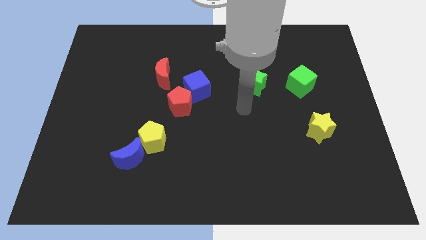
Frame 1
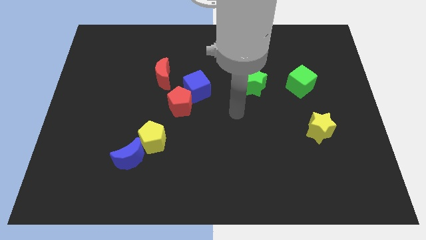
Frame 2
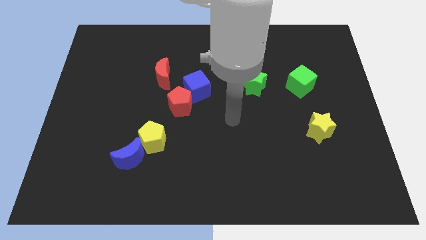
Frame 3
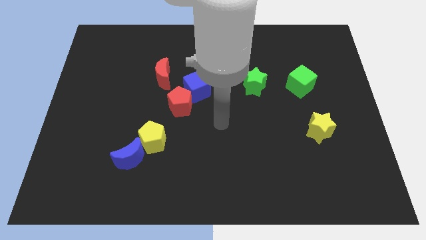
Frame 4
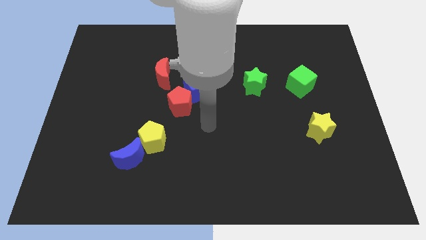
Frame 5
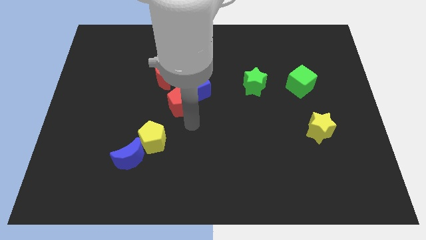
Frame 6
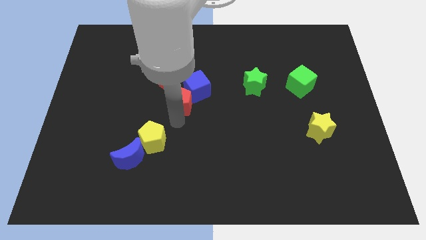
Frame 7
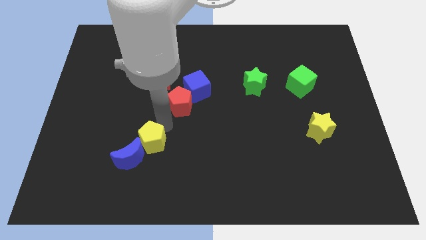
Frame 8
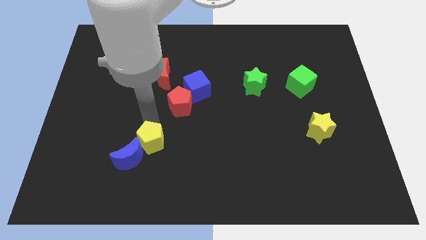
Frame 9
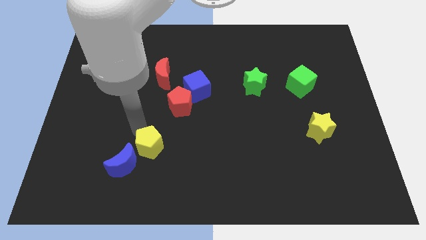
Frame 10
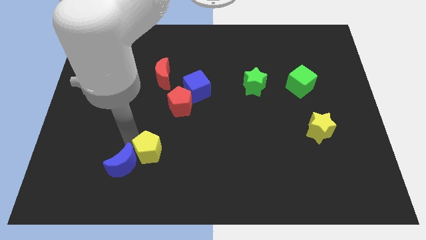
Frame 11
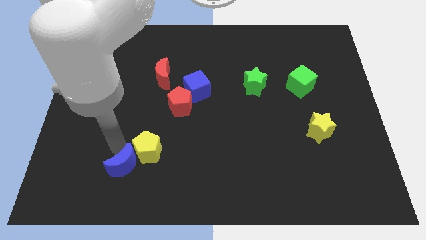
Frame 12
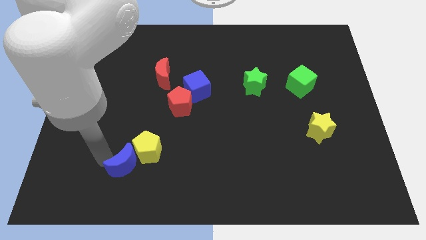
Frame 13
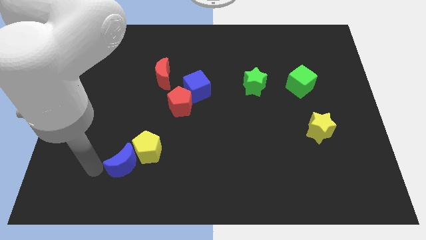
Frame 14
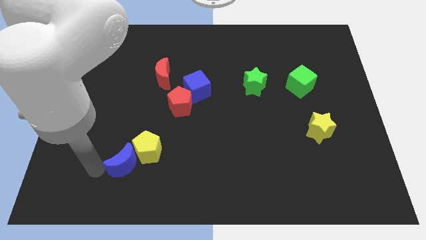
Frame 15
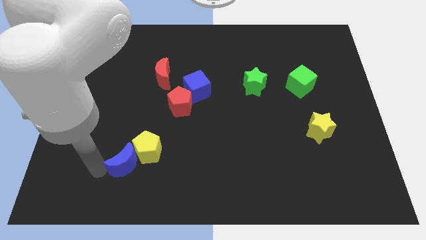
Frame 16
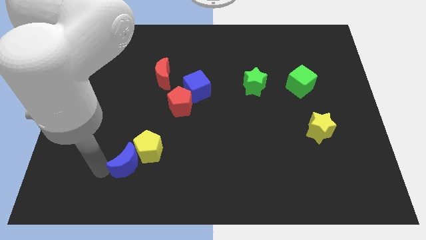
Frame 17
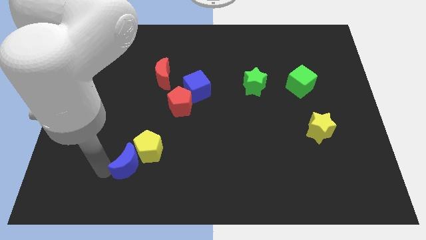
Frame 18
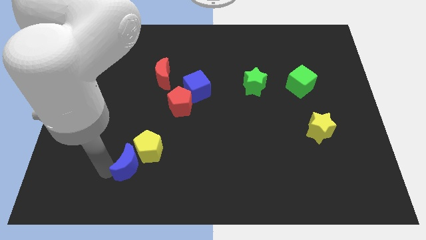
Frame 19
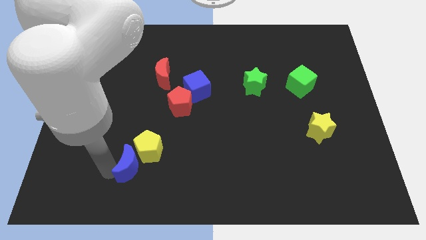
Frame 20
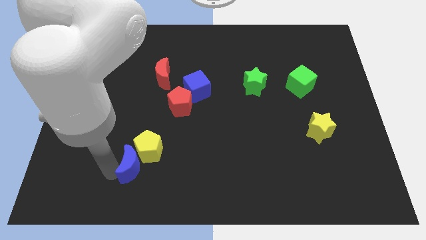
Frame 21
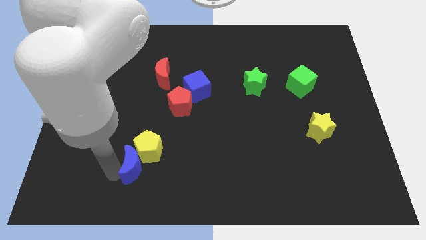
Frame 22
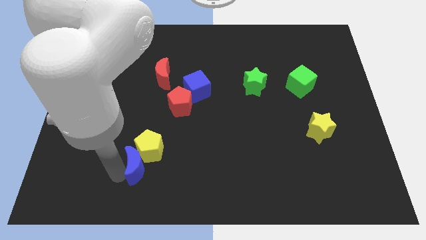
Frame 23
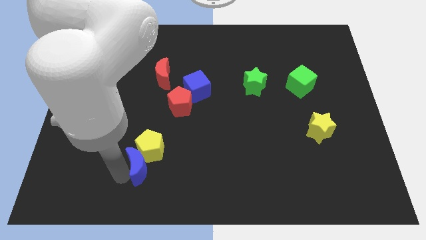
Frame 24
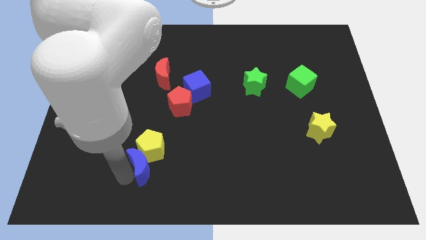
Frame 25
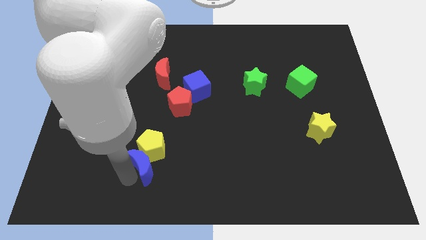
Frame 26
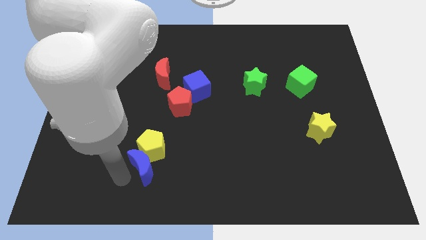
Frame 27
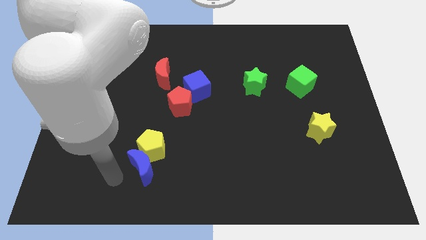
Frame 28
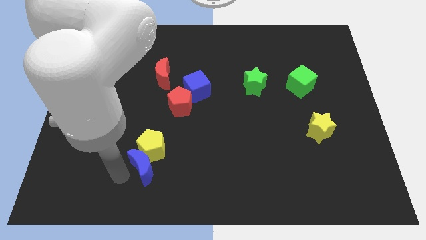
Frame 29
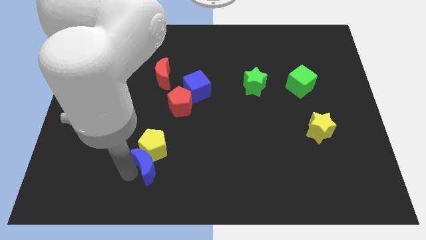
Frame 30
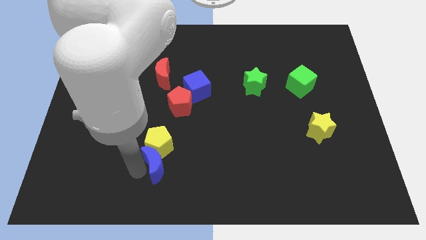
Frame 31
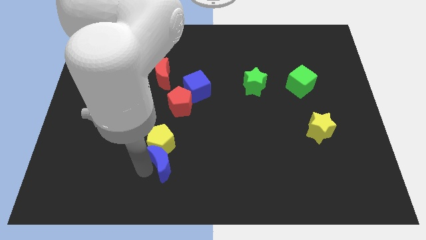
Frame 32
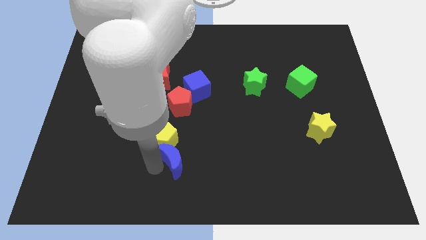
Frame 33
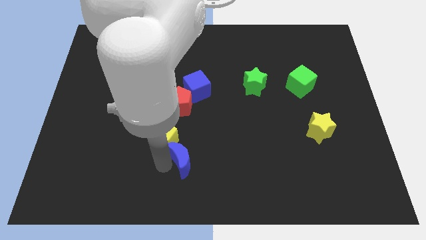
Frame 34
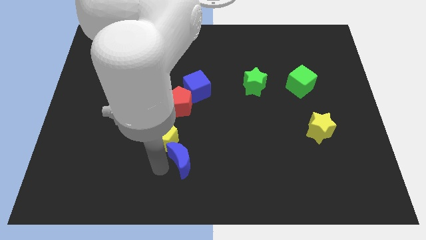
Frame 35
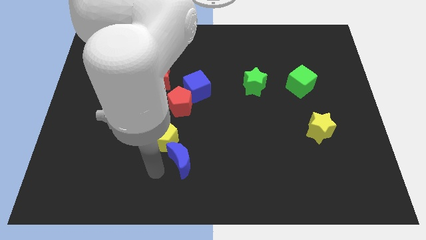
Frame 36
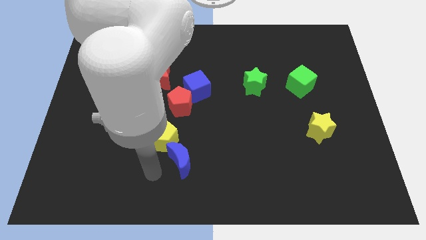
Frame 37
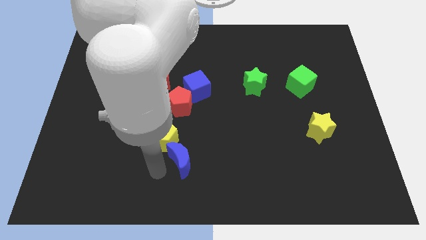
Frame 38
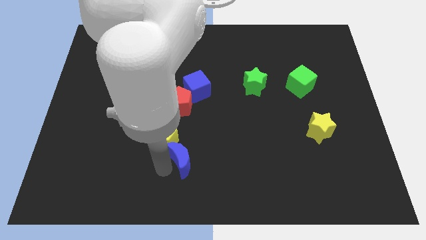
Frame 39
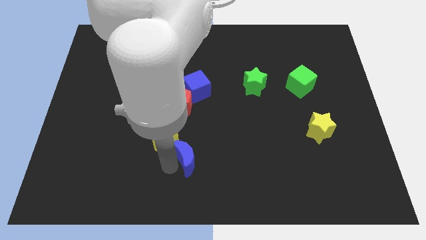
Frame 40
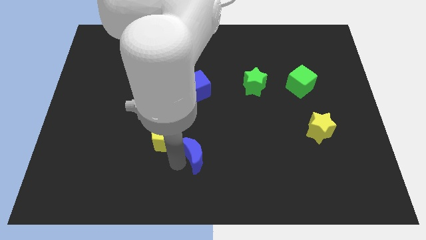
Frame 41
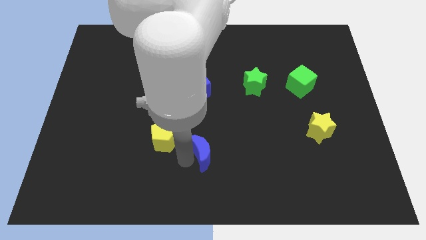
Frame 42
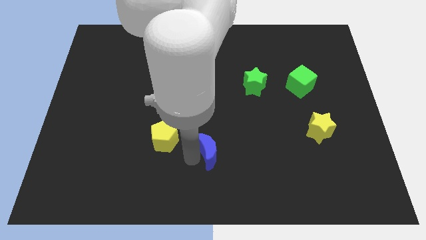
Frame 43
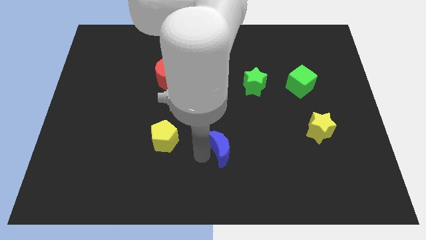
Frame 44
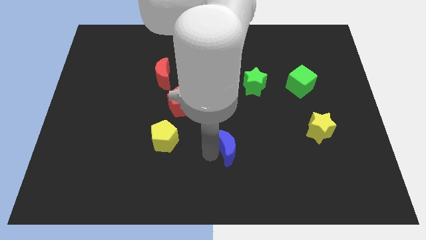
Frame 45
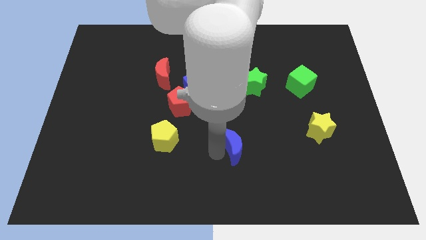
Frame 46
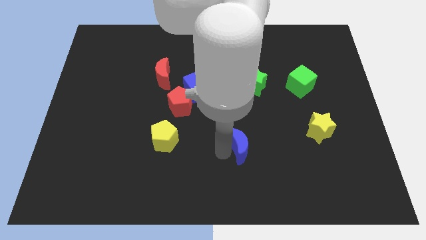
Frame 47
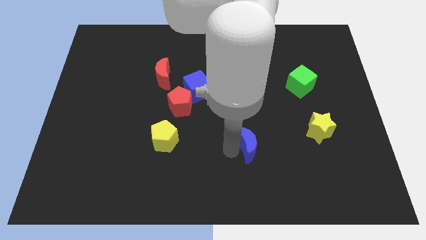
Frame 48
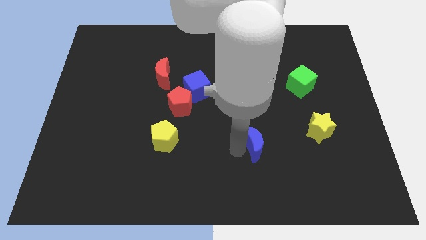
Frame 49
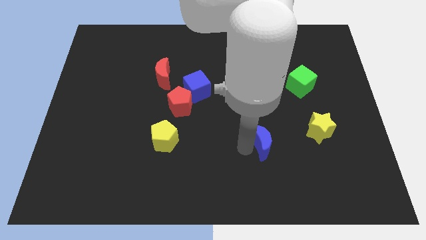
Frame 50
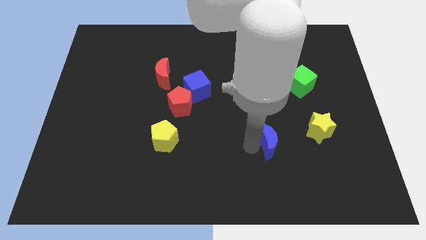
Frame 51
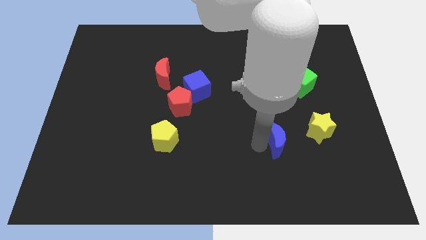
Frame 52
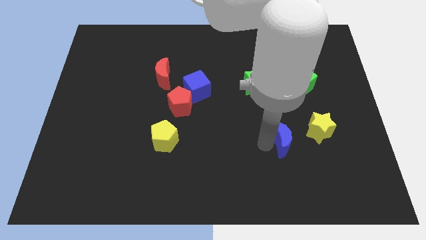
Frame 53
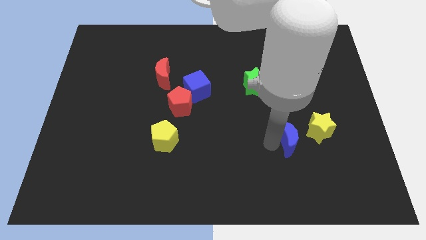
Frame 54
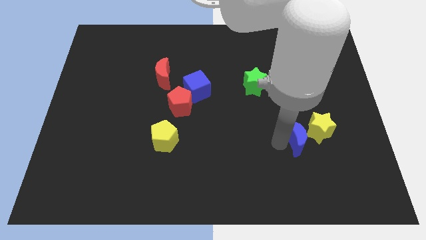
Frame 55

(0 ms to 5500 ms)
slide the blue moon towards the yellow star
